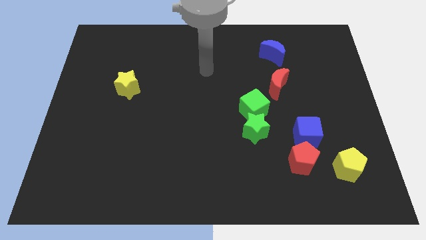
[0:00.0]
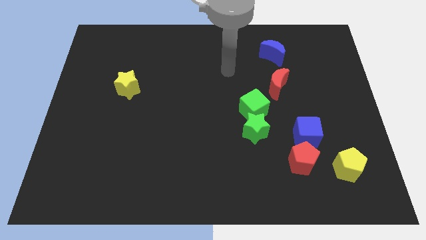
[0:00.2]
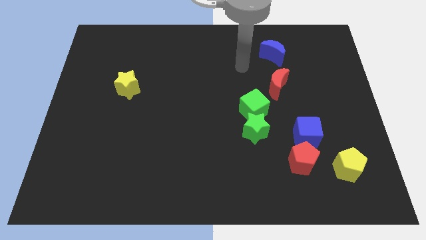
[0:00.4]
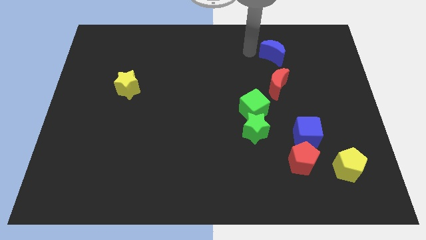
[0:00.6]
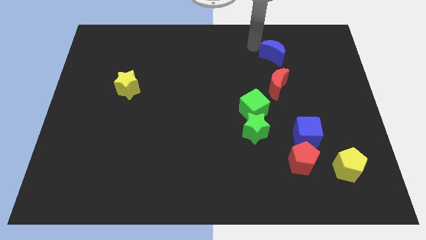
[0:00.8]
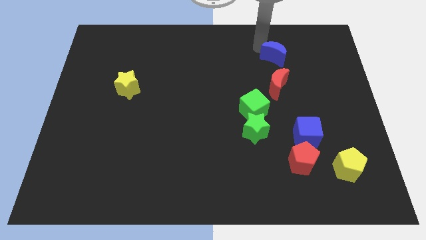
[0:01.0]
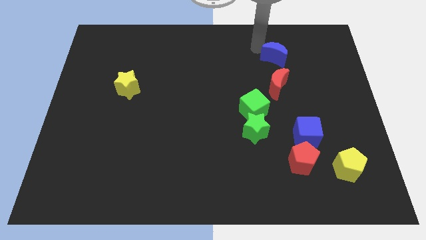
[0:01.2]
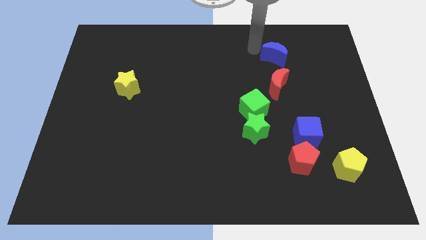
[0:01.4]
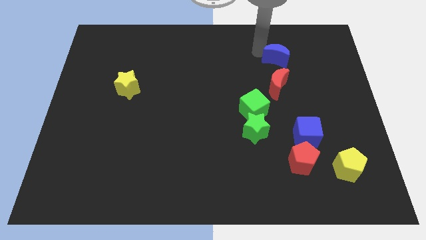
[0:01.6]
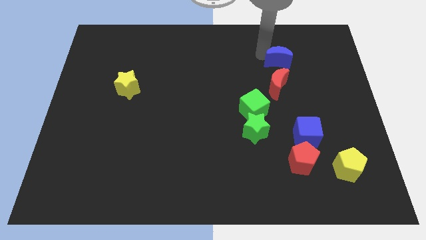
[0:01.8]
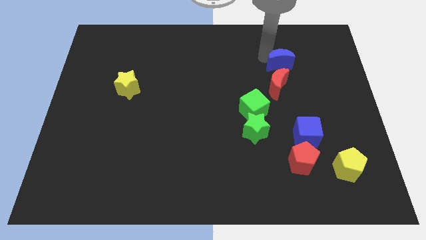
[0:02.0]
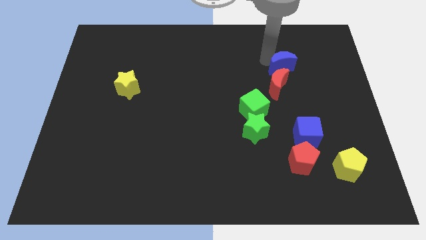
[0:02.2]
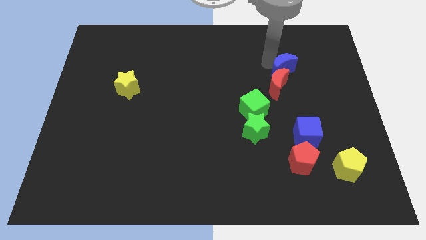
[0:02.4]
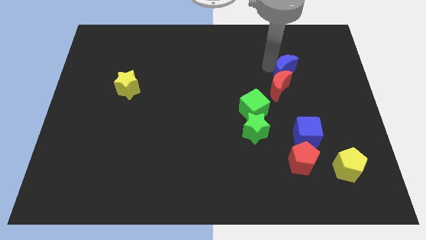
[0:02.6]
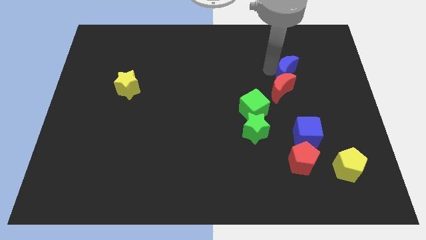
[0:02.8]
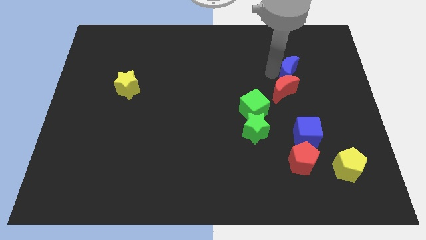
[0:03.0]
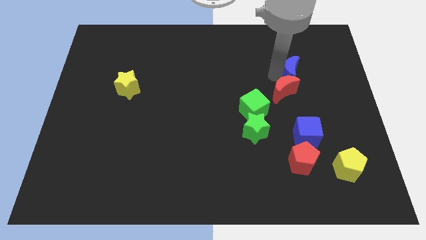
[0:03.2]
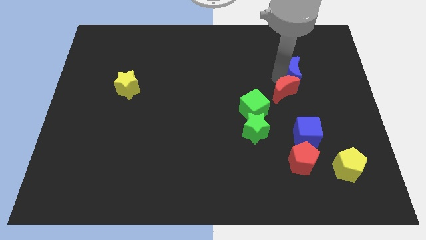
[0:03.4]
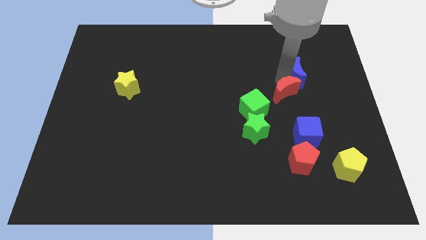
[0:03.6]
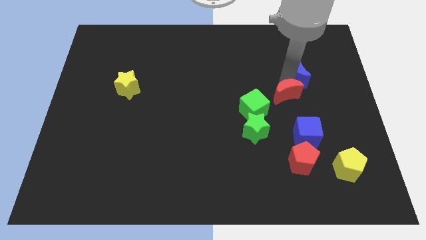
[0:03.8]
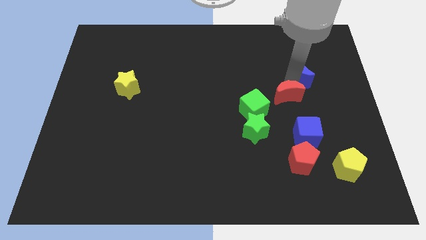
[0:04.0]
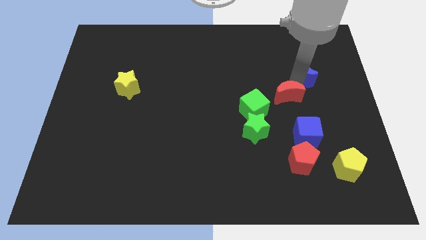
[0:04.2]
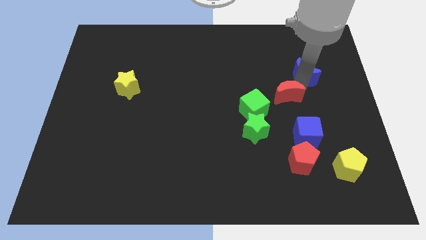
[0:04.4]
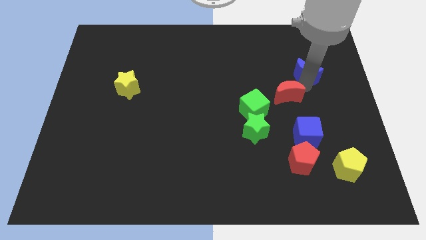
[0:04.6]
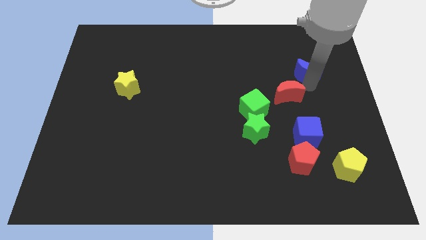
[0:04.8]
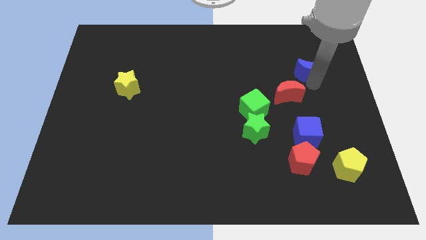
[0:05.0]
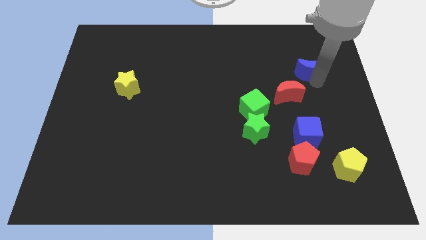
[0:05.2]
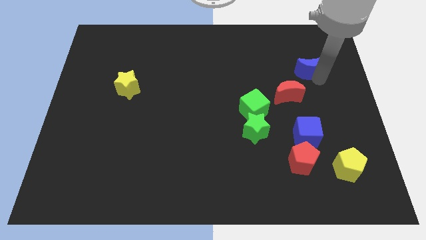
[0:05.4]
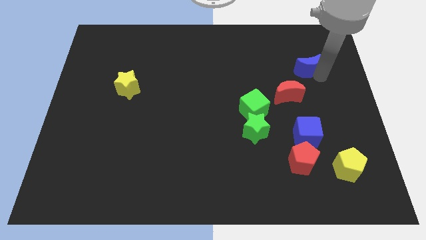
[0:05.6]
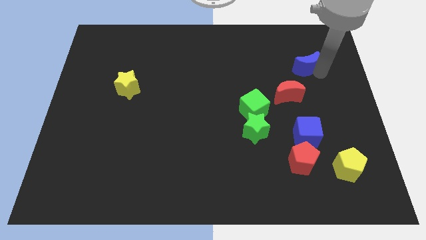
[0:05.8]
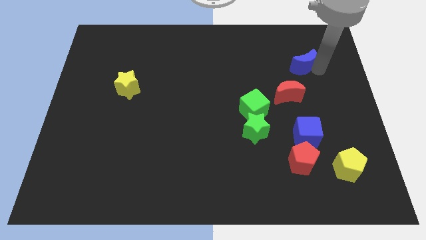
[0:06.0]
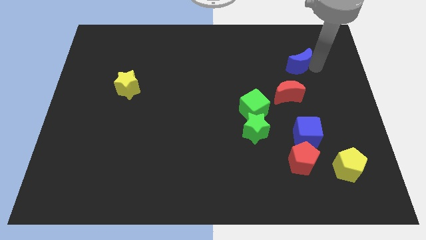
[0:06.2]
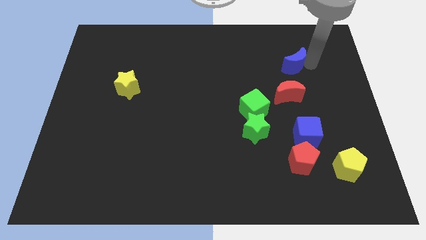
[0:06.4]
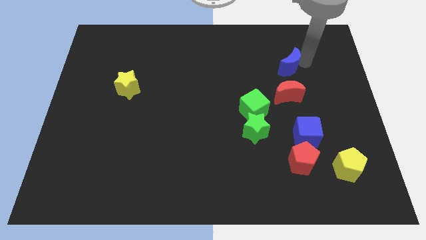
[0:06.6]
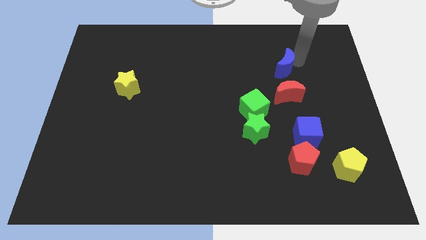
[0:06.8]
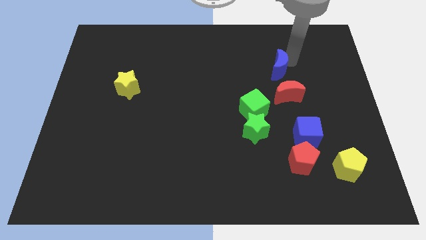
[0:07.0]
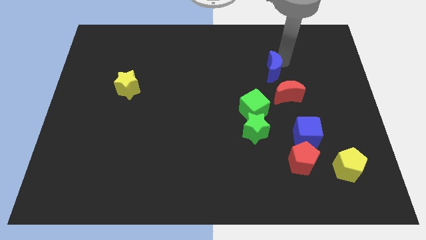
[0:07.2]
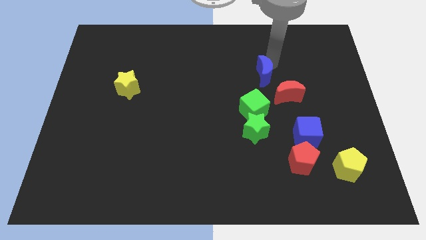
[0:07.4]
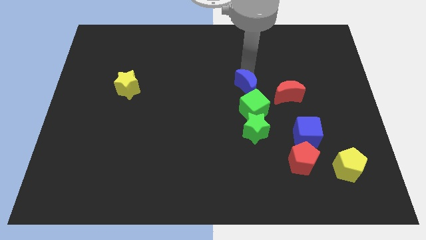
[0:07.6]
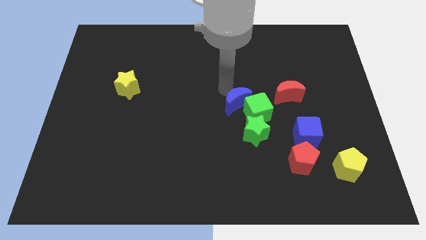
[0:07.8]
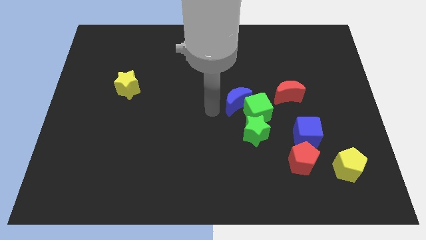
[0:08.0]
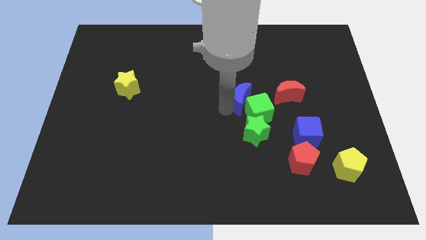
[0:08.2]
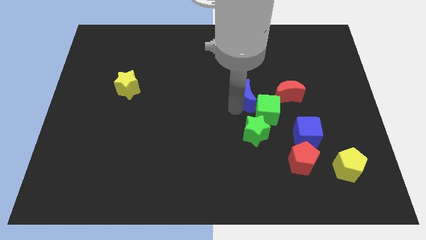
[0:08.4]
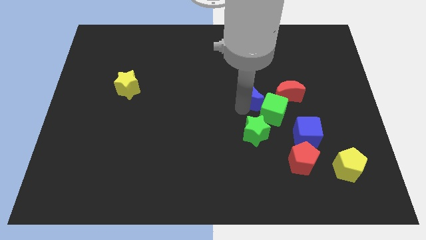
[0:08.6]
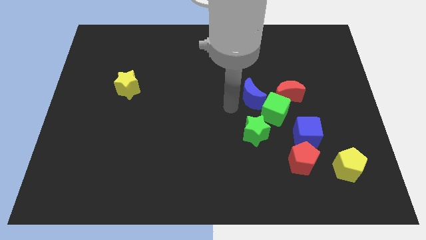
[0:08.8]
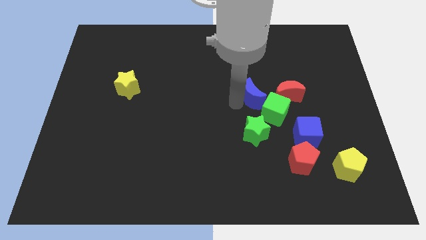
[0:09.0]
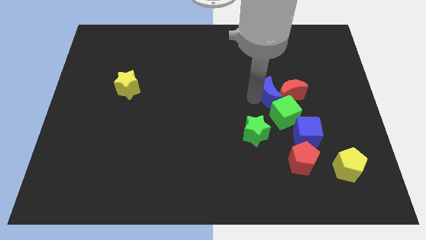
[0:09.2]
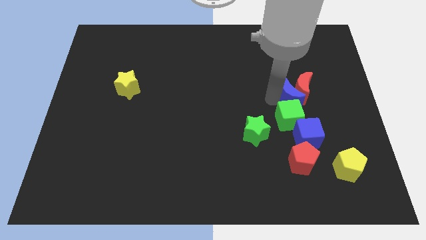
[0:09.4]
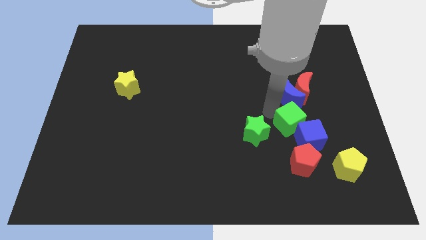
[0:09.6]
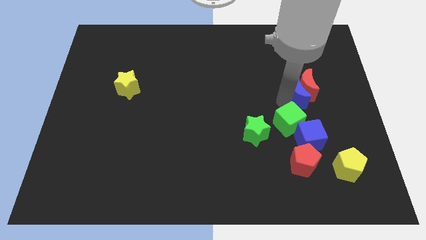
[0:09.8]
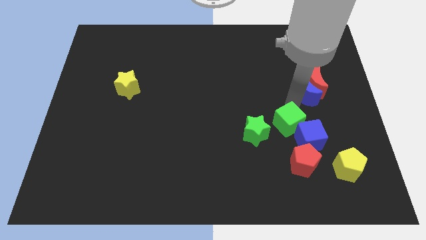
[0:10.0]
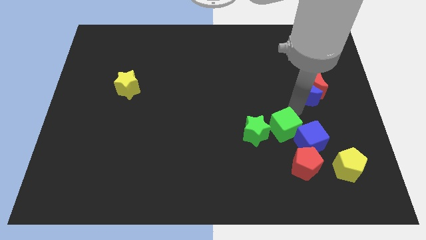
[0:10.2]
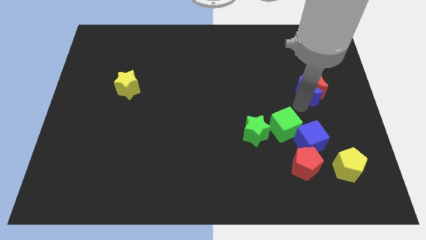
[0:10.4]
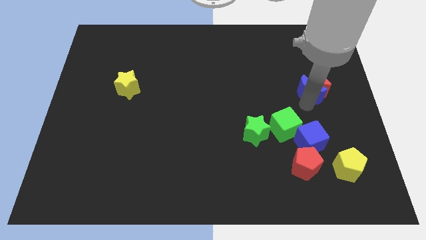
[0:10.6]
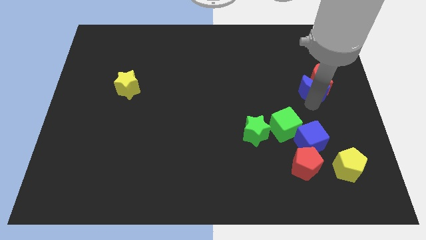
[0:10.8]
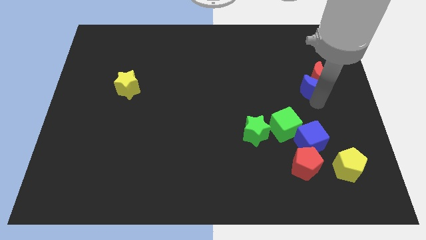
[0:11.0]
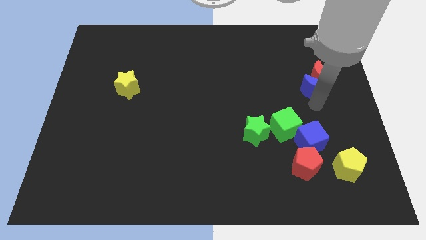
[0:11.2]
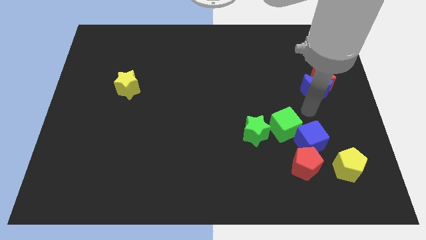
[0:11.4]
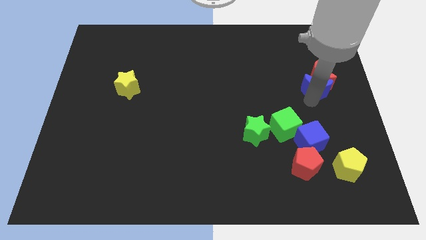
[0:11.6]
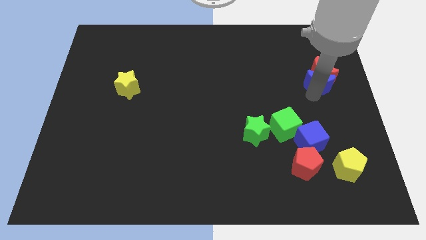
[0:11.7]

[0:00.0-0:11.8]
slide the blue moon to the right side
